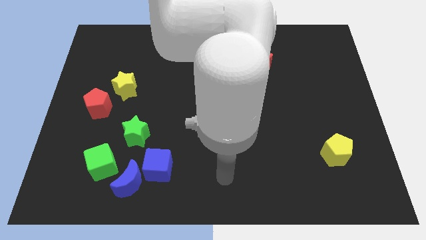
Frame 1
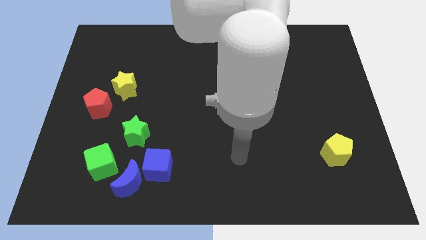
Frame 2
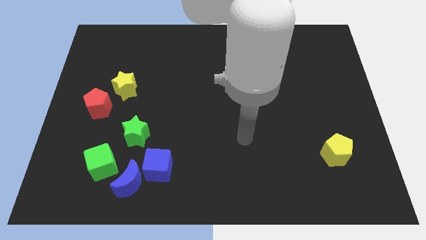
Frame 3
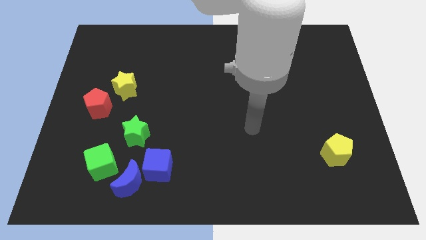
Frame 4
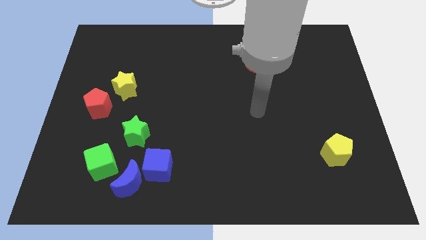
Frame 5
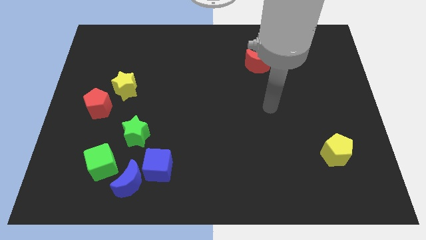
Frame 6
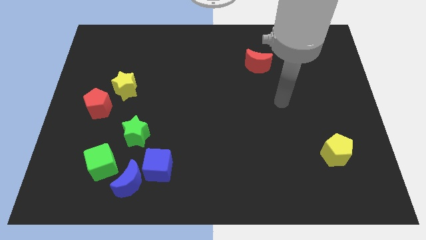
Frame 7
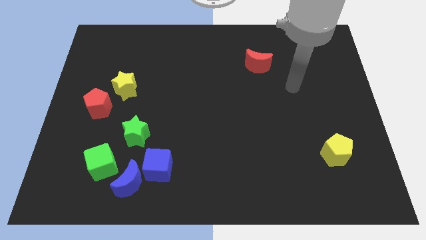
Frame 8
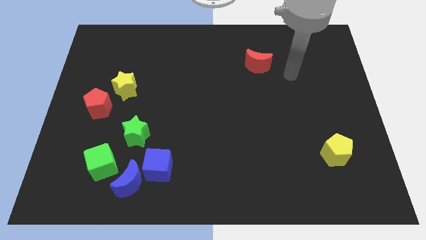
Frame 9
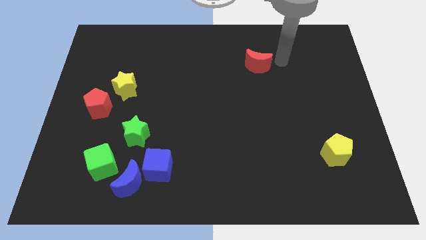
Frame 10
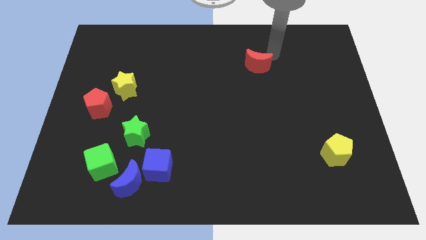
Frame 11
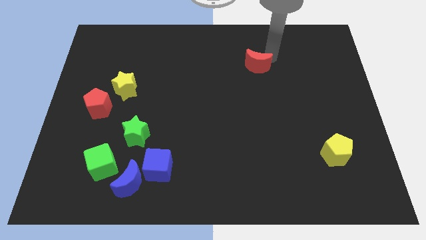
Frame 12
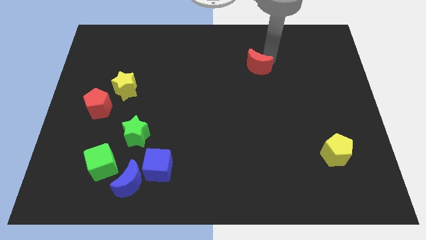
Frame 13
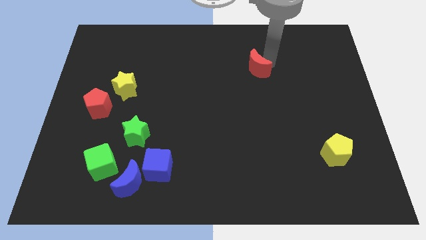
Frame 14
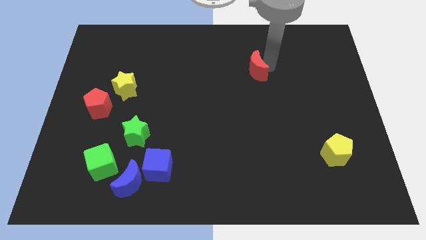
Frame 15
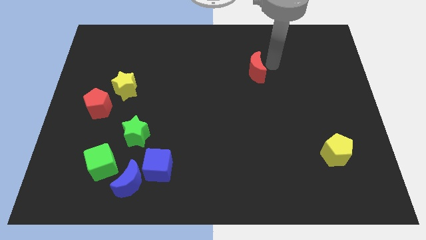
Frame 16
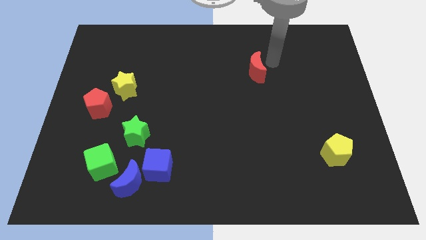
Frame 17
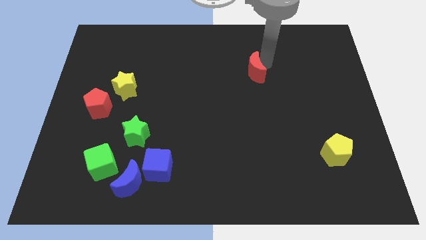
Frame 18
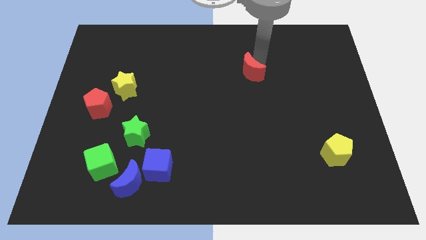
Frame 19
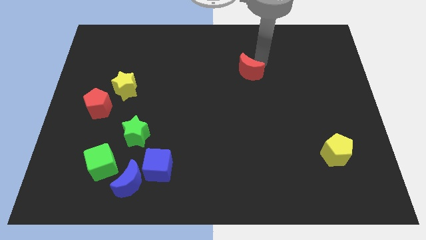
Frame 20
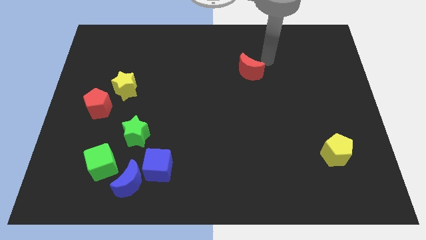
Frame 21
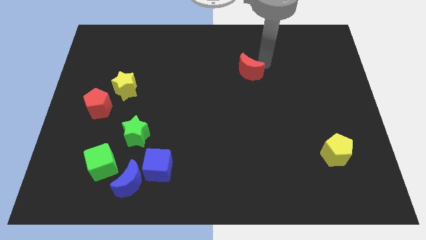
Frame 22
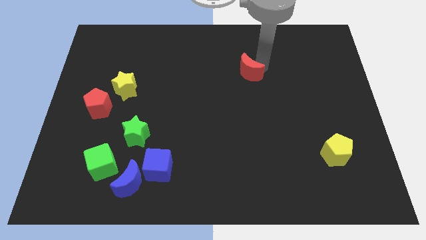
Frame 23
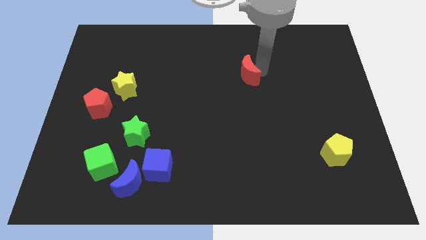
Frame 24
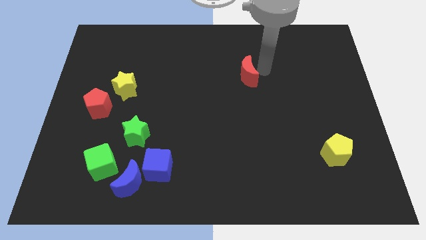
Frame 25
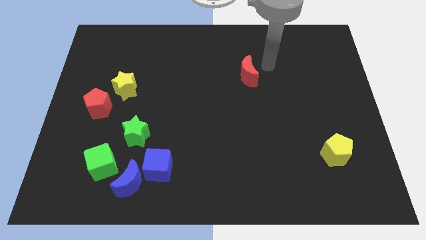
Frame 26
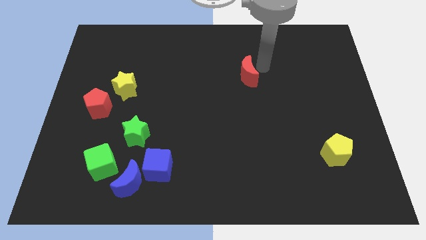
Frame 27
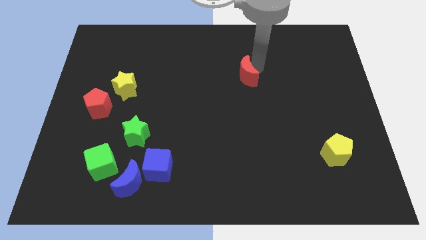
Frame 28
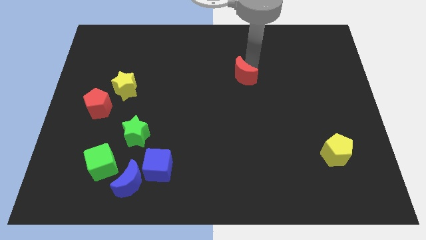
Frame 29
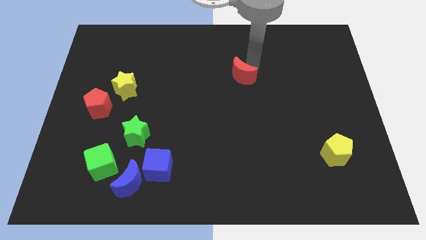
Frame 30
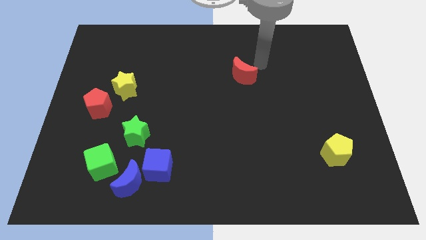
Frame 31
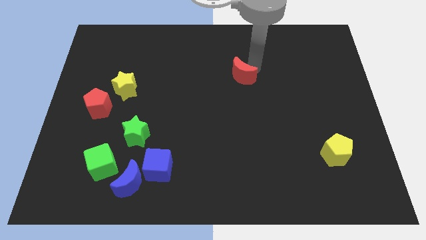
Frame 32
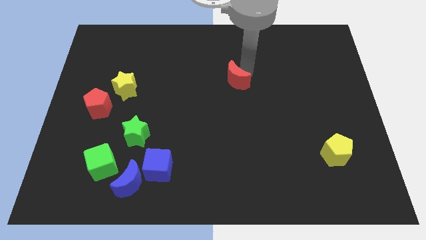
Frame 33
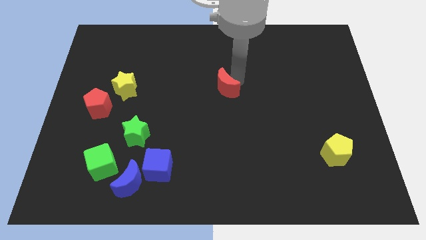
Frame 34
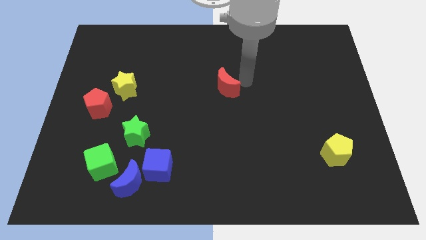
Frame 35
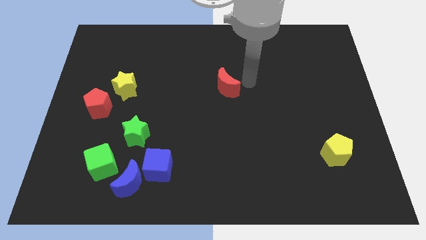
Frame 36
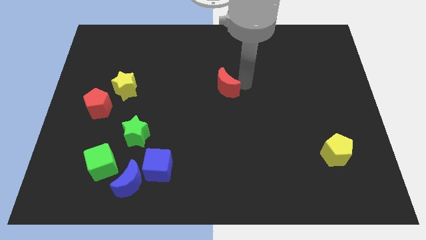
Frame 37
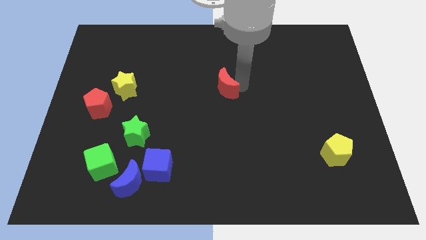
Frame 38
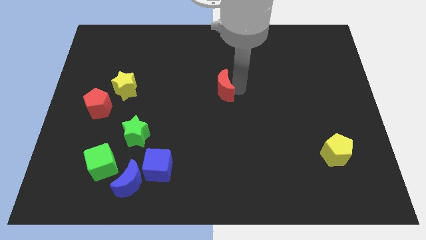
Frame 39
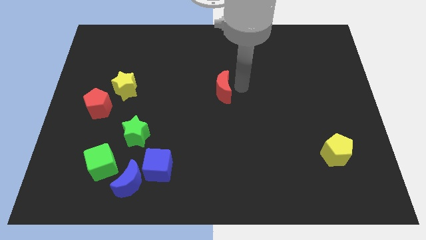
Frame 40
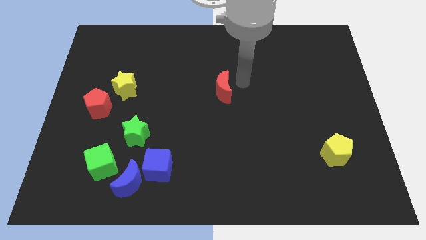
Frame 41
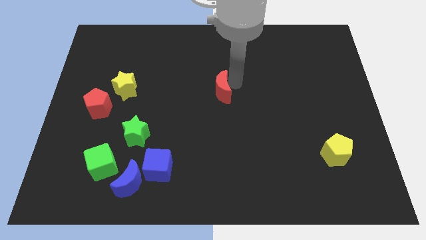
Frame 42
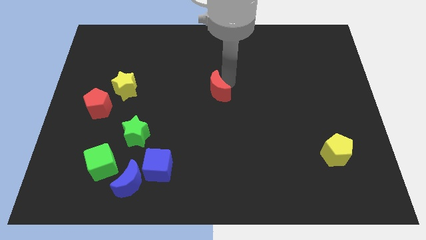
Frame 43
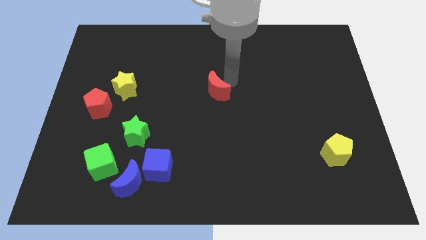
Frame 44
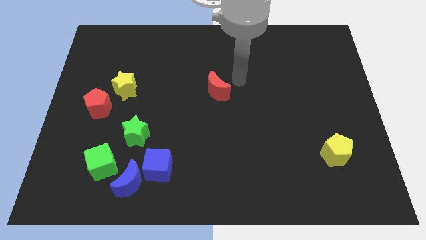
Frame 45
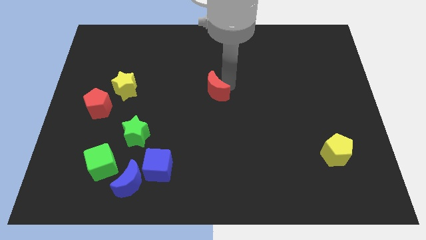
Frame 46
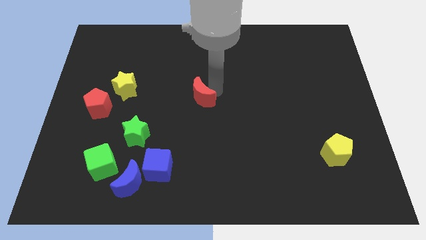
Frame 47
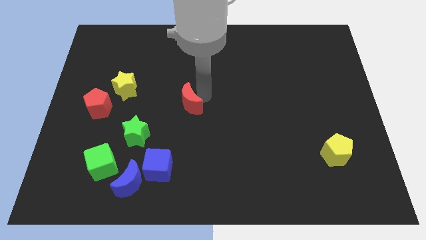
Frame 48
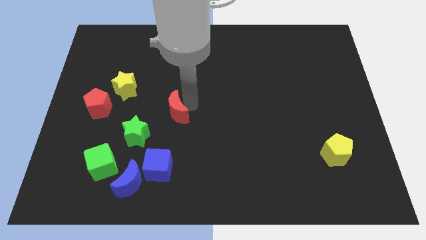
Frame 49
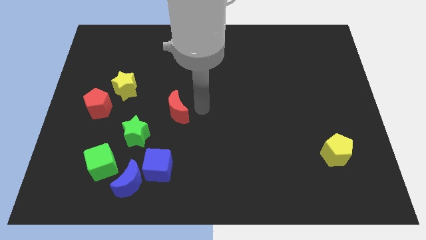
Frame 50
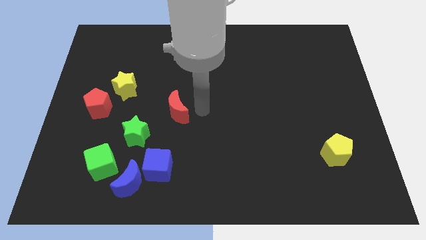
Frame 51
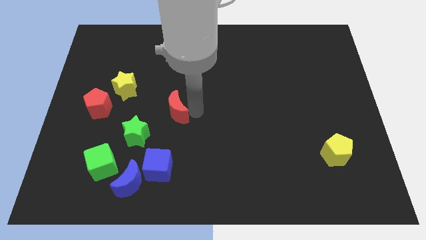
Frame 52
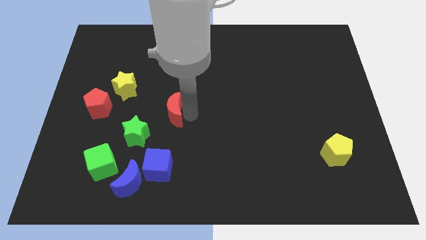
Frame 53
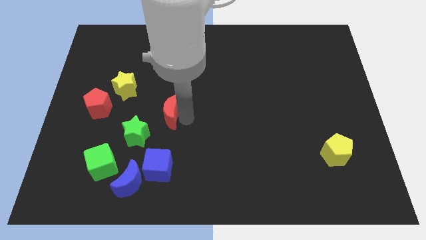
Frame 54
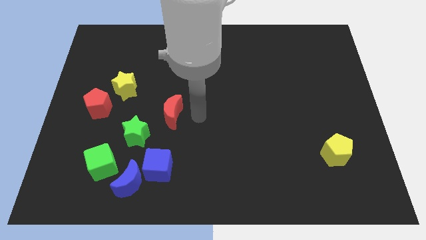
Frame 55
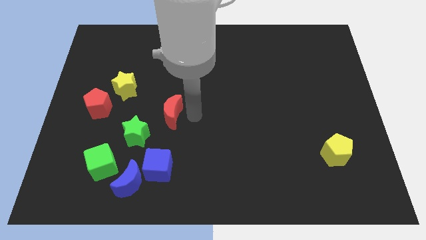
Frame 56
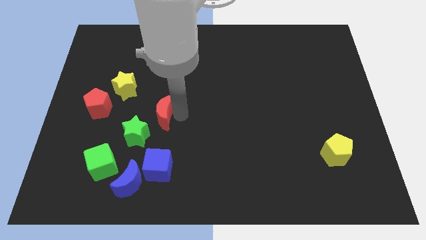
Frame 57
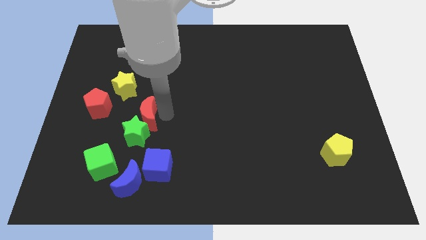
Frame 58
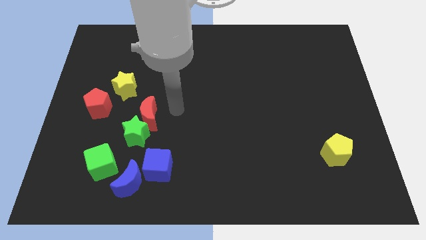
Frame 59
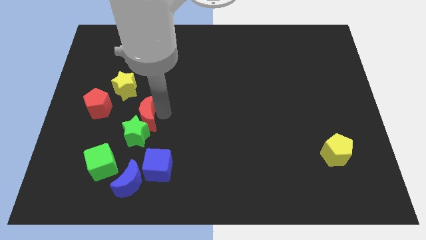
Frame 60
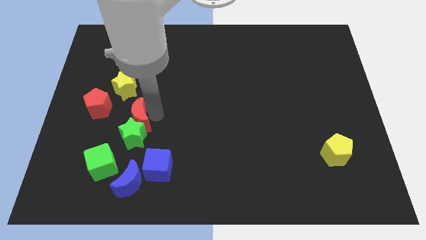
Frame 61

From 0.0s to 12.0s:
move the red moon diagonally down and to the right of the red pentagon

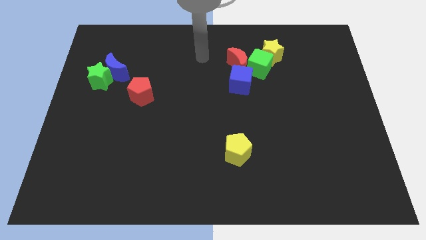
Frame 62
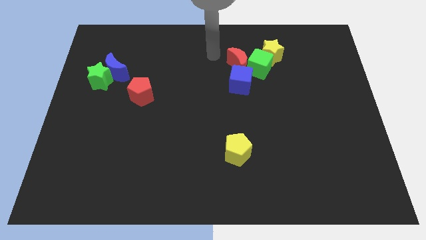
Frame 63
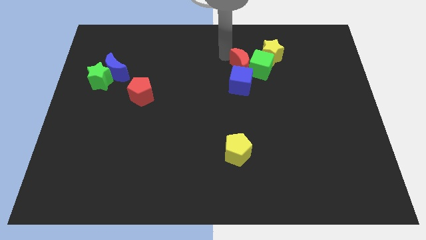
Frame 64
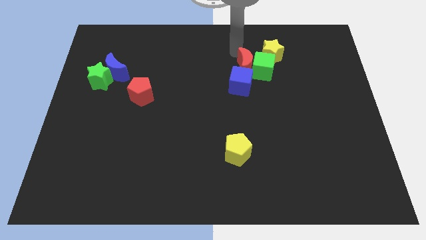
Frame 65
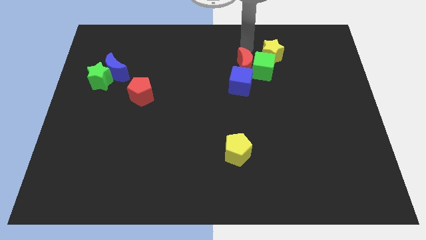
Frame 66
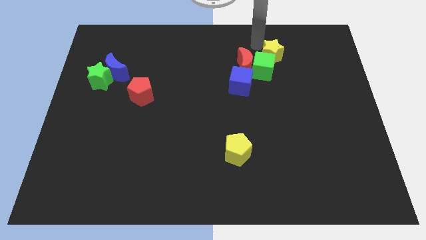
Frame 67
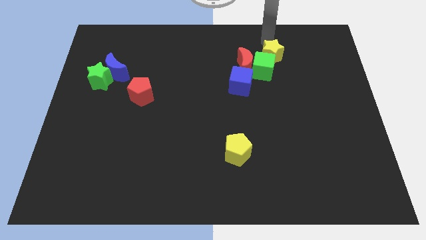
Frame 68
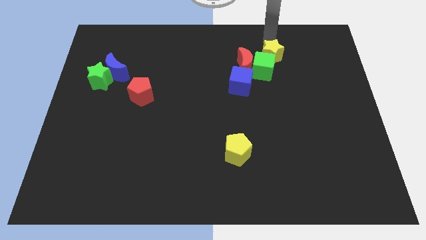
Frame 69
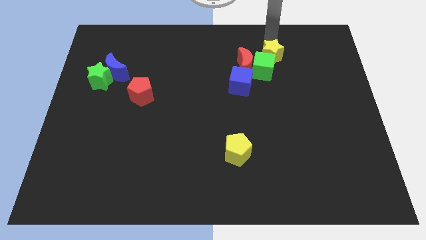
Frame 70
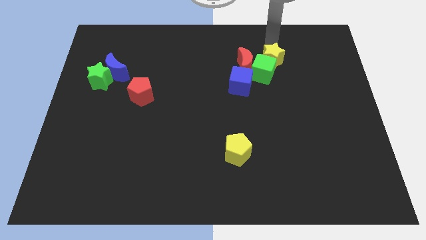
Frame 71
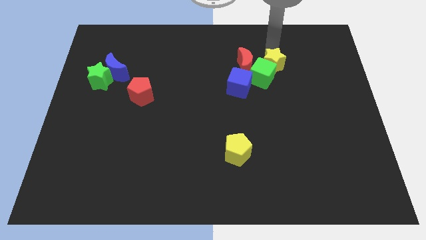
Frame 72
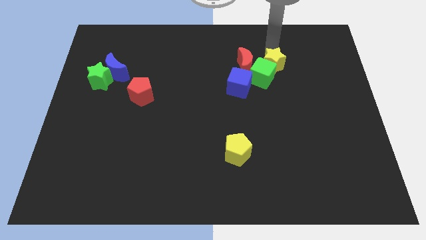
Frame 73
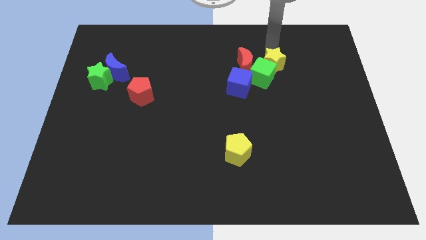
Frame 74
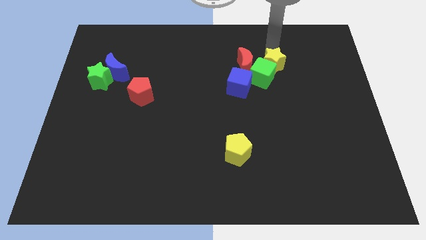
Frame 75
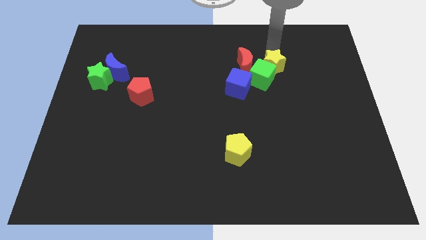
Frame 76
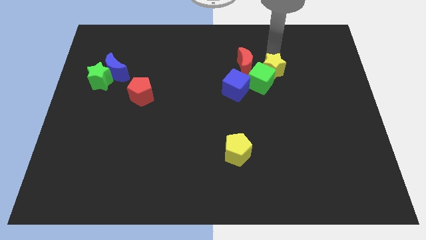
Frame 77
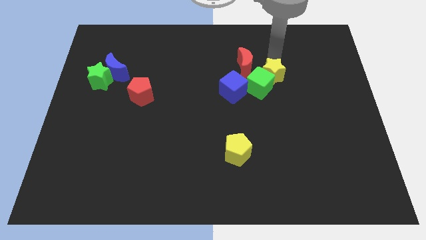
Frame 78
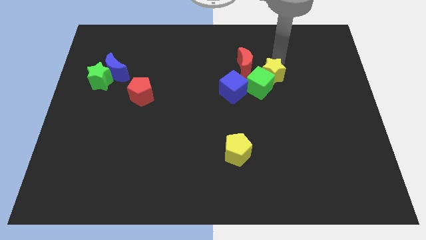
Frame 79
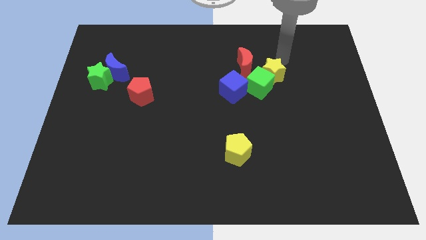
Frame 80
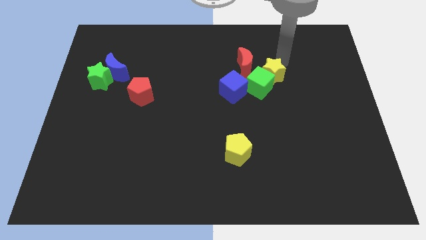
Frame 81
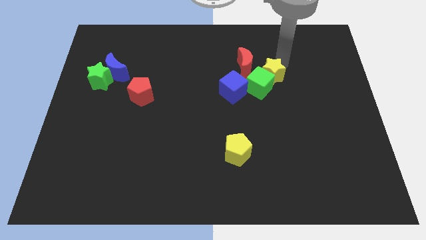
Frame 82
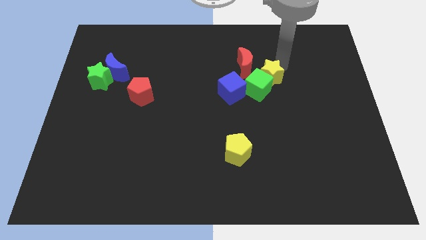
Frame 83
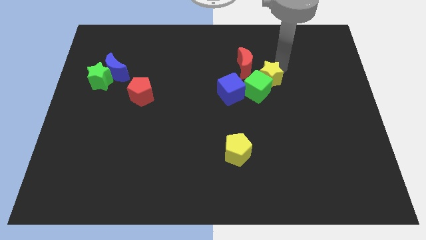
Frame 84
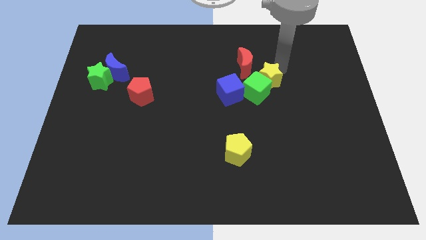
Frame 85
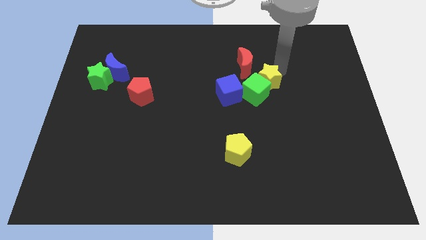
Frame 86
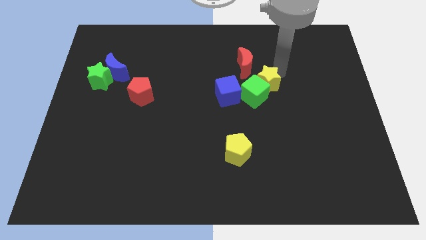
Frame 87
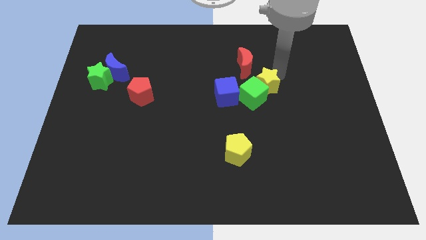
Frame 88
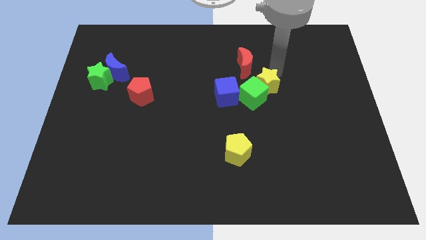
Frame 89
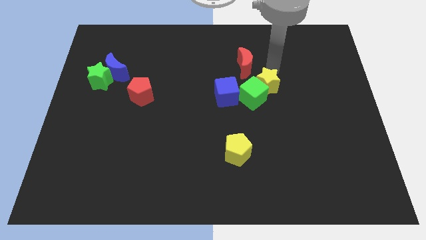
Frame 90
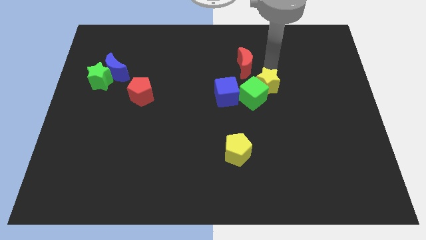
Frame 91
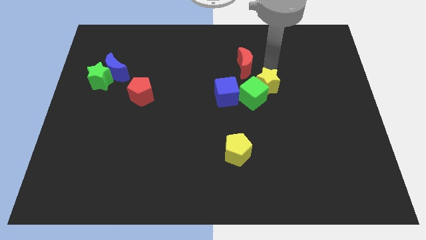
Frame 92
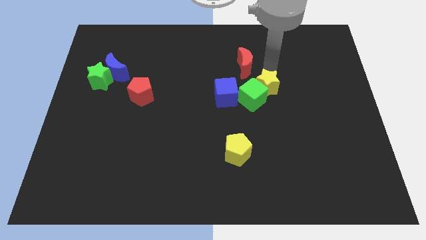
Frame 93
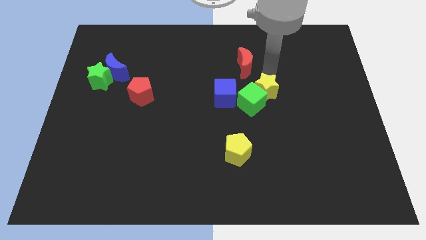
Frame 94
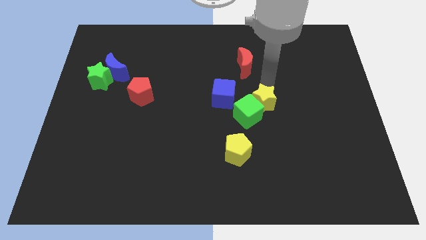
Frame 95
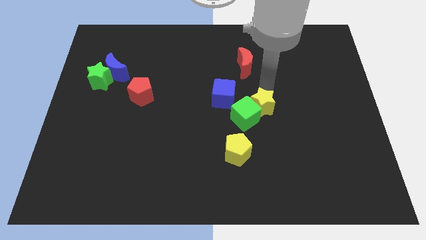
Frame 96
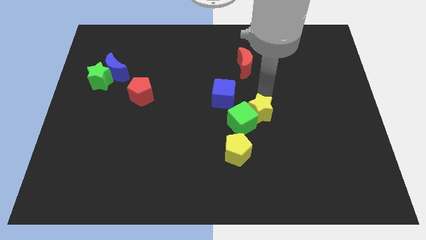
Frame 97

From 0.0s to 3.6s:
push the yellow star diagonally up and to the right of the yellow pentagon
